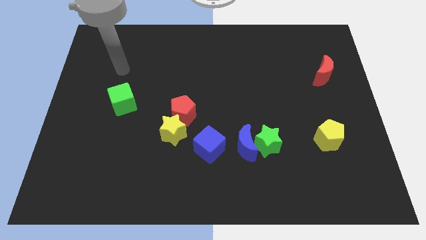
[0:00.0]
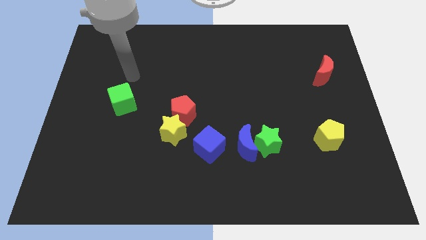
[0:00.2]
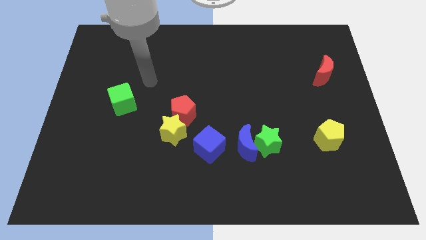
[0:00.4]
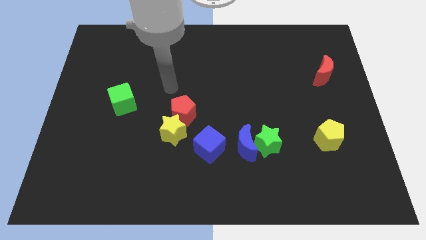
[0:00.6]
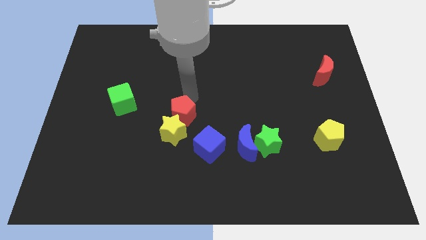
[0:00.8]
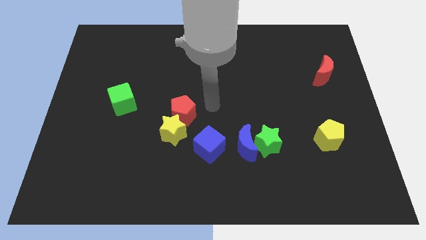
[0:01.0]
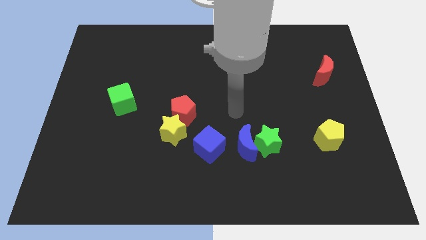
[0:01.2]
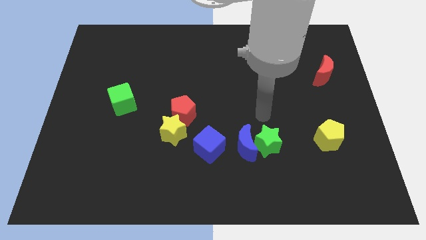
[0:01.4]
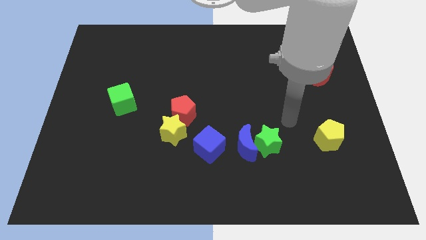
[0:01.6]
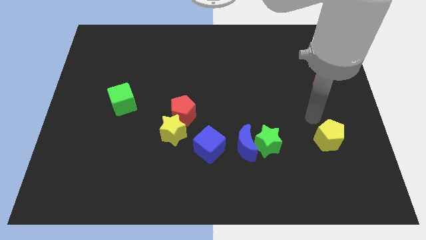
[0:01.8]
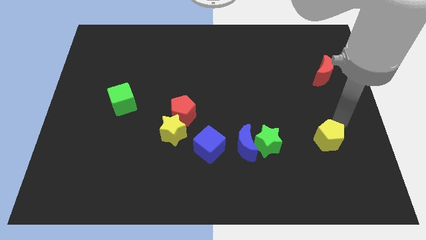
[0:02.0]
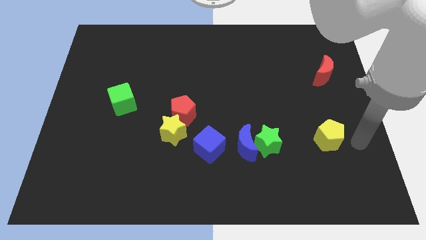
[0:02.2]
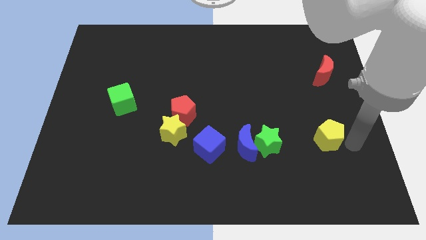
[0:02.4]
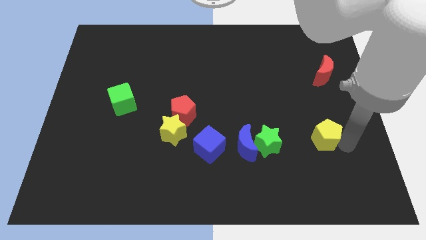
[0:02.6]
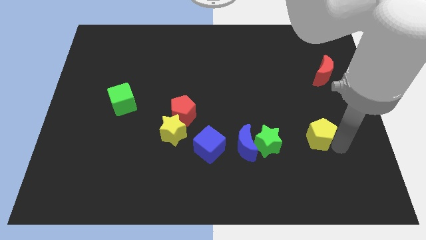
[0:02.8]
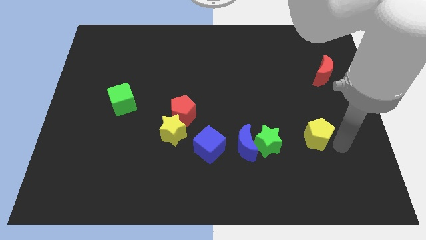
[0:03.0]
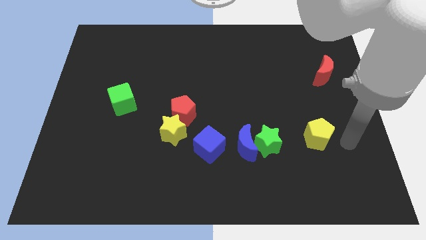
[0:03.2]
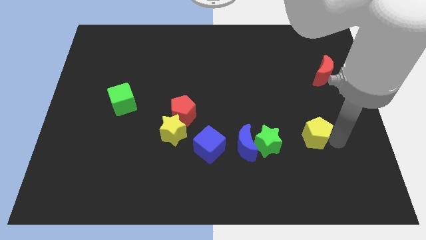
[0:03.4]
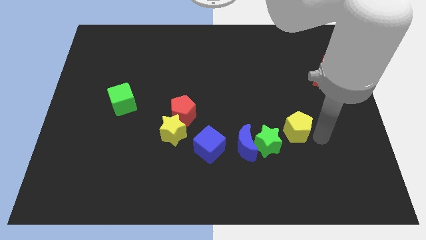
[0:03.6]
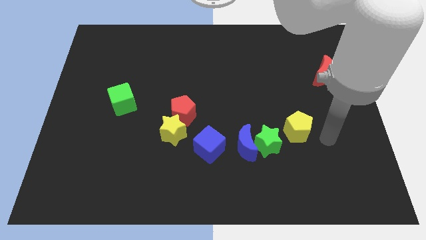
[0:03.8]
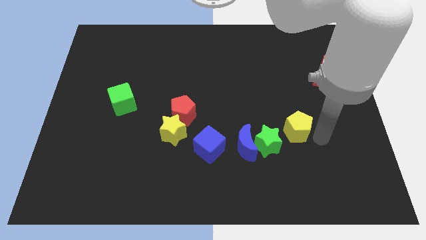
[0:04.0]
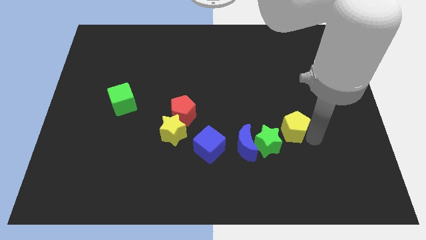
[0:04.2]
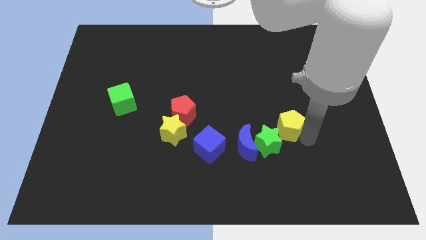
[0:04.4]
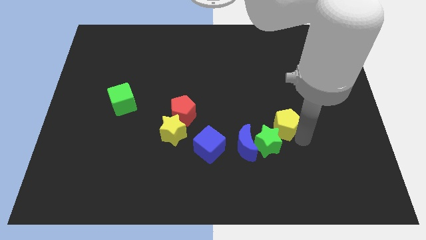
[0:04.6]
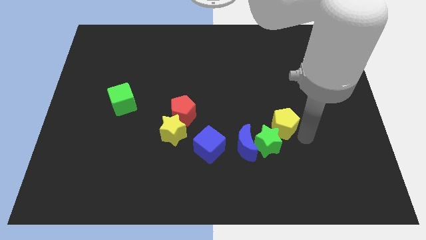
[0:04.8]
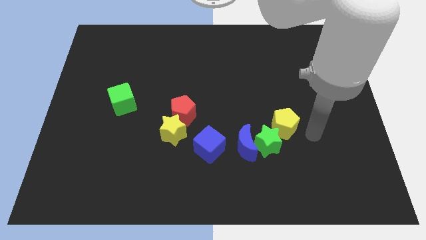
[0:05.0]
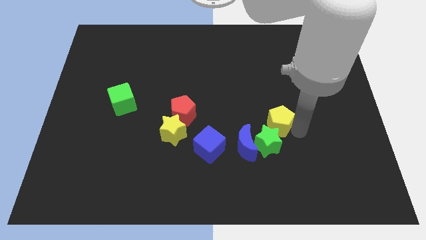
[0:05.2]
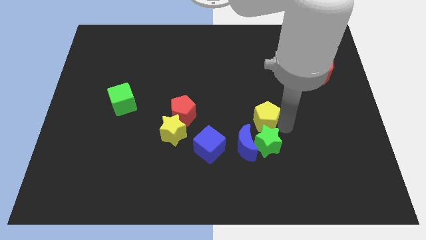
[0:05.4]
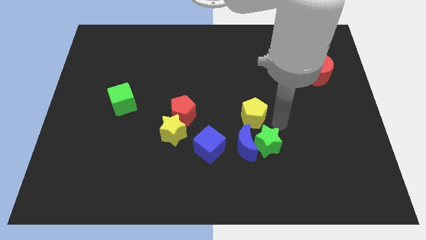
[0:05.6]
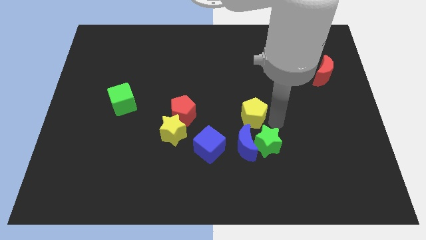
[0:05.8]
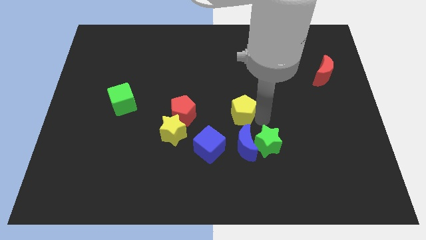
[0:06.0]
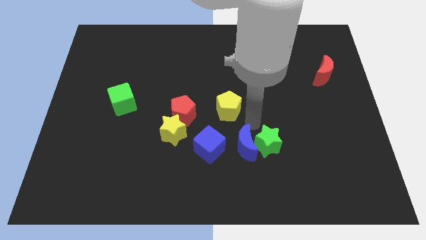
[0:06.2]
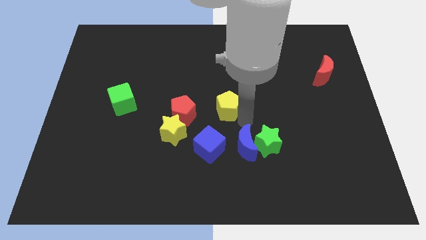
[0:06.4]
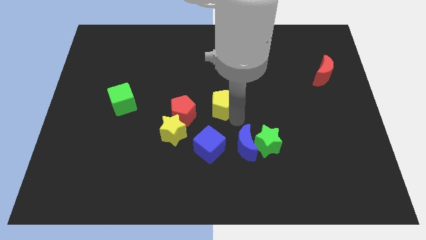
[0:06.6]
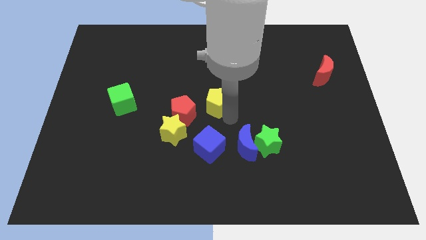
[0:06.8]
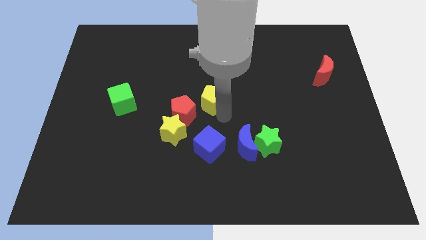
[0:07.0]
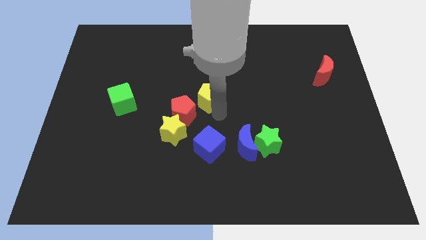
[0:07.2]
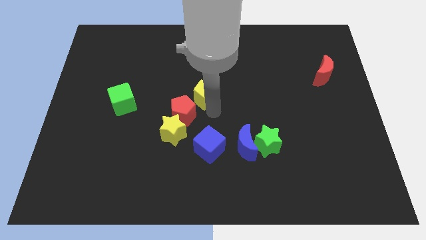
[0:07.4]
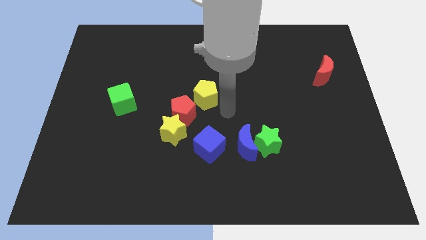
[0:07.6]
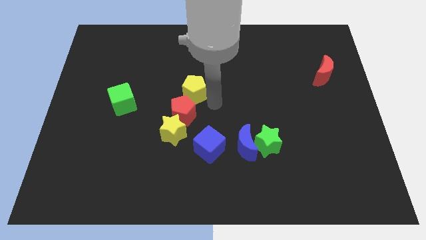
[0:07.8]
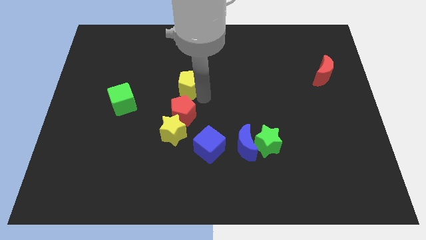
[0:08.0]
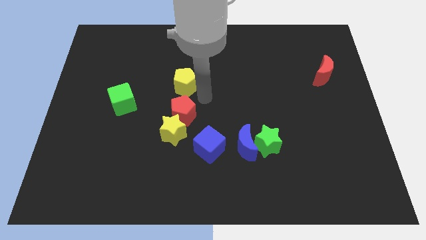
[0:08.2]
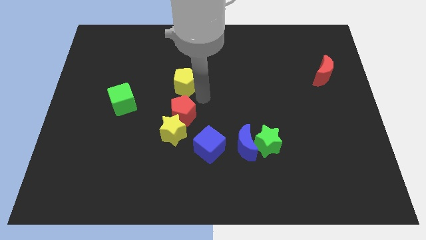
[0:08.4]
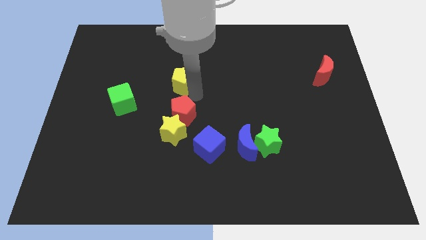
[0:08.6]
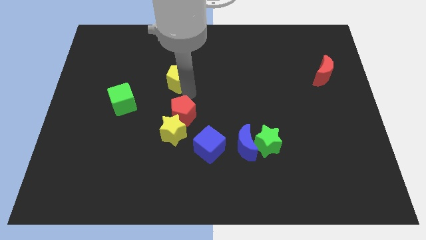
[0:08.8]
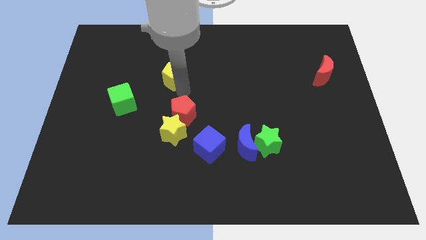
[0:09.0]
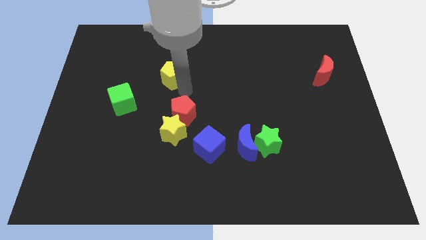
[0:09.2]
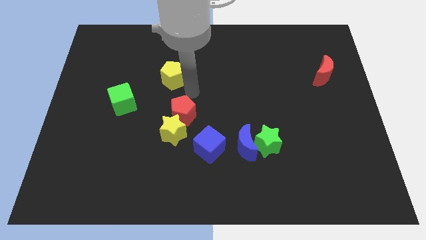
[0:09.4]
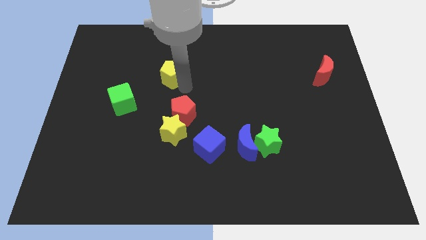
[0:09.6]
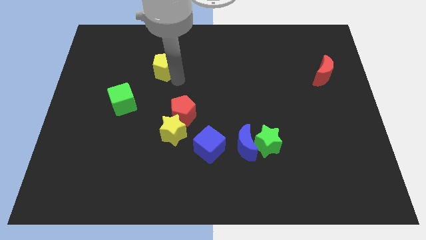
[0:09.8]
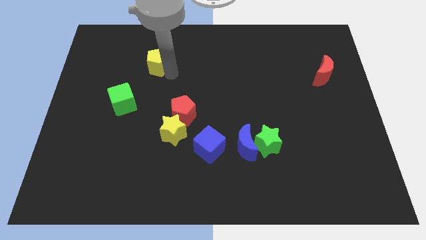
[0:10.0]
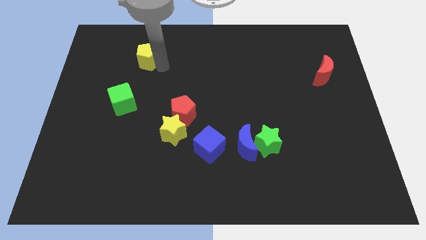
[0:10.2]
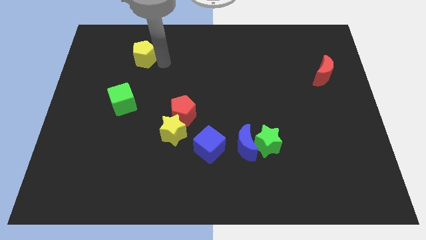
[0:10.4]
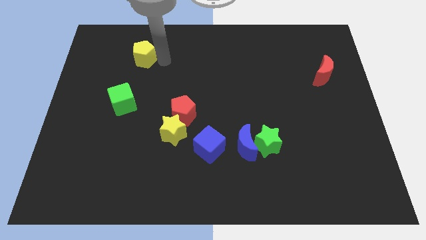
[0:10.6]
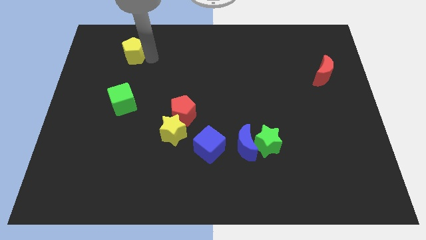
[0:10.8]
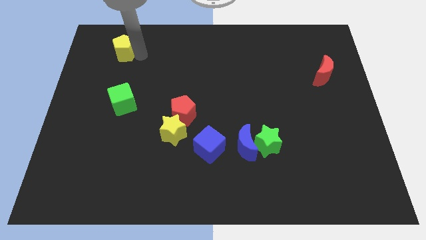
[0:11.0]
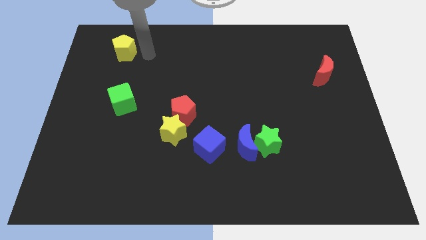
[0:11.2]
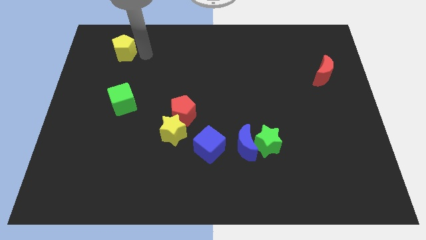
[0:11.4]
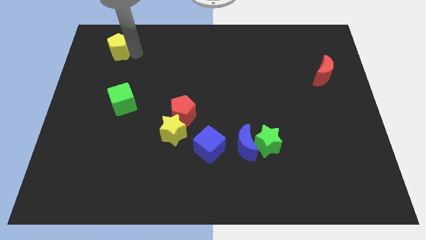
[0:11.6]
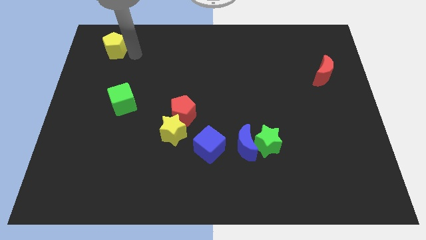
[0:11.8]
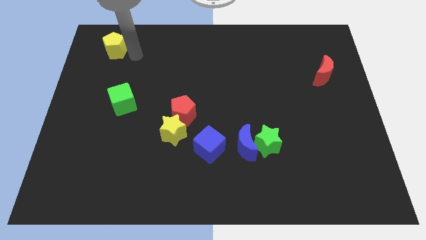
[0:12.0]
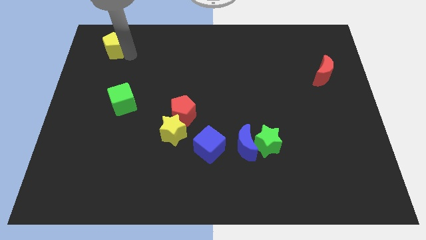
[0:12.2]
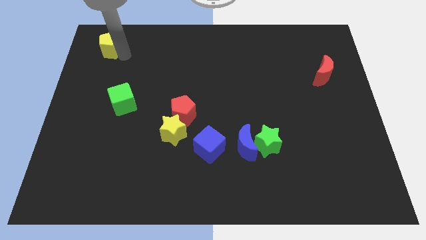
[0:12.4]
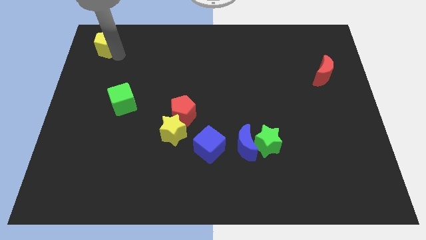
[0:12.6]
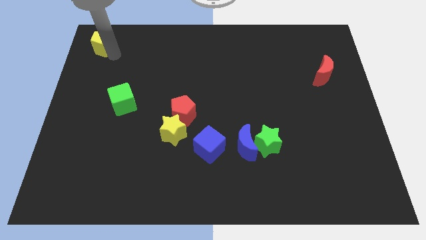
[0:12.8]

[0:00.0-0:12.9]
slide the yellow pentagon to the top left of the board

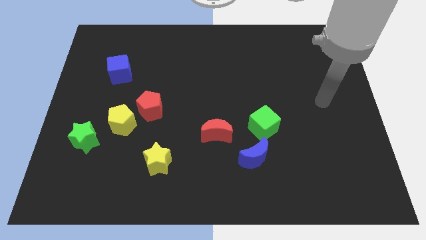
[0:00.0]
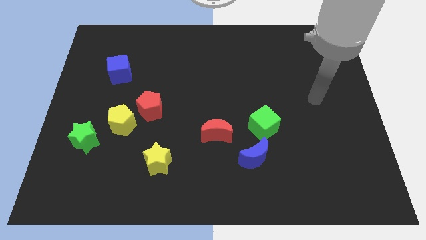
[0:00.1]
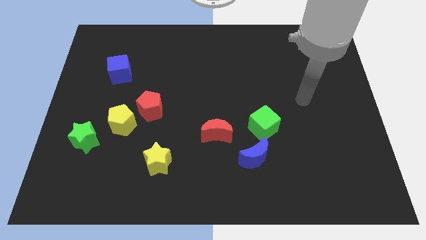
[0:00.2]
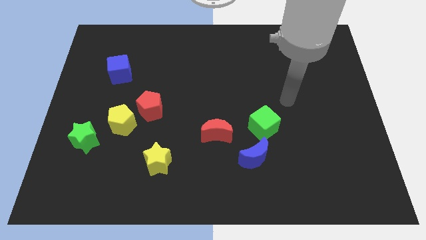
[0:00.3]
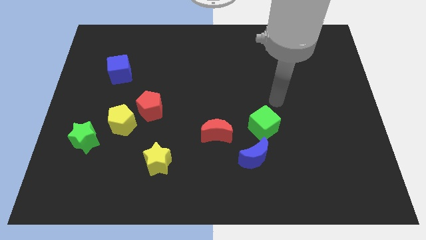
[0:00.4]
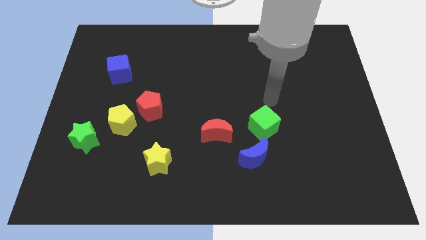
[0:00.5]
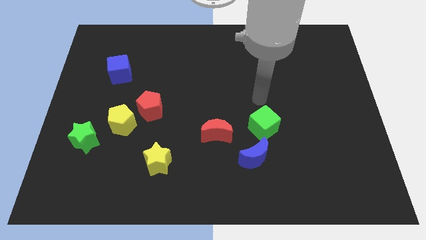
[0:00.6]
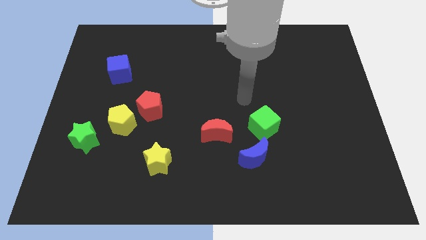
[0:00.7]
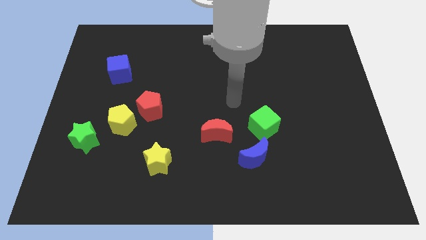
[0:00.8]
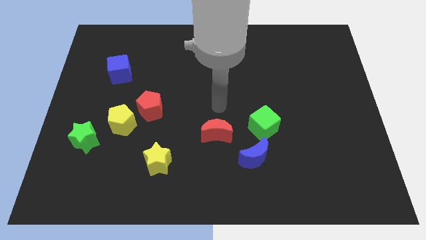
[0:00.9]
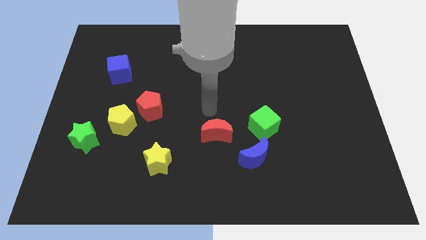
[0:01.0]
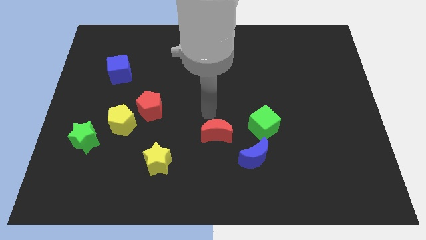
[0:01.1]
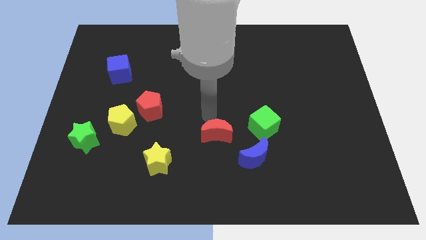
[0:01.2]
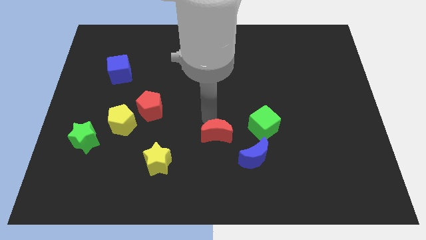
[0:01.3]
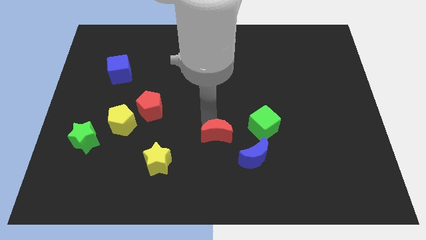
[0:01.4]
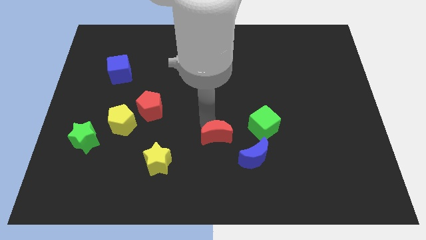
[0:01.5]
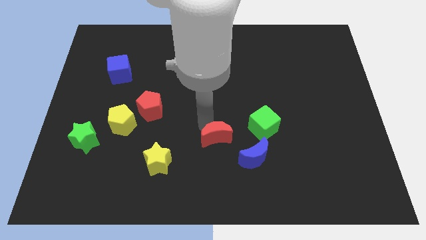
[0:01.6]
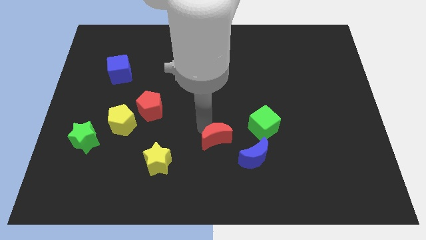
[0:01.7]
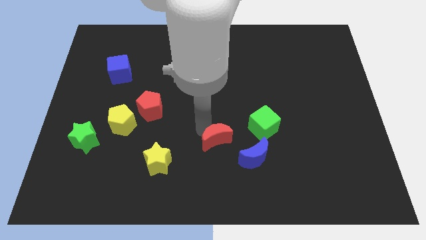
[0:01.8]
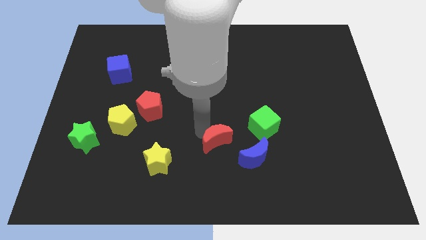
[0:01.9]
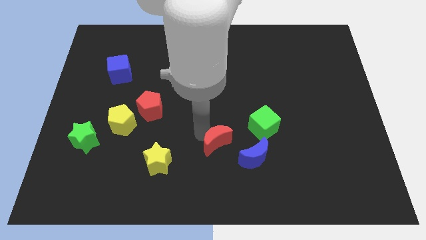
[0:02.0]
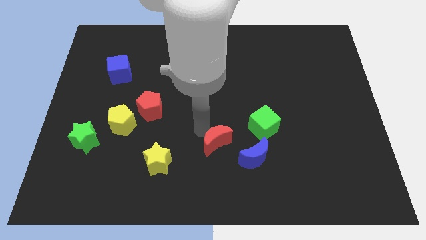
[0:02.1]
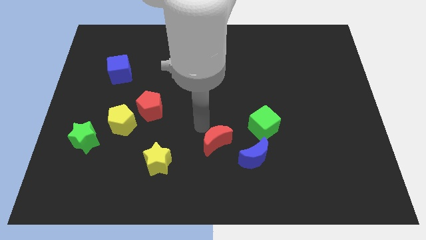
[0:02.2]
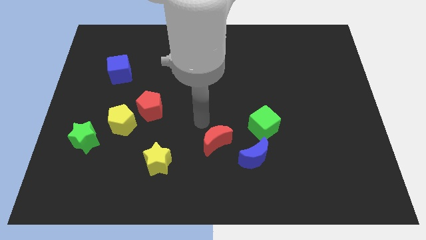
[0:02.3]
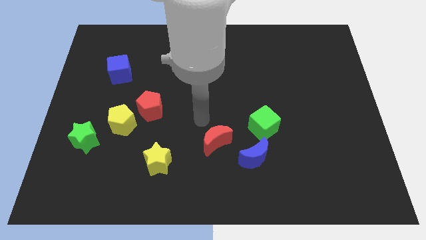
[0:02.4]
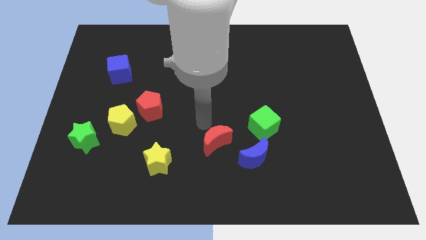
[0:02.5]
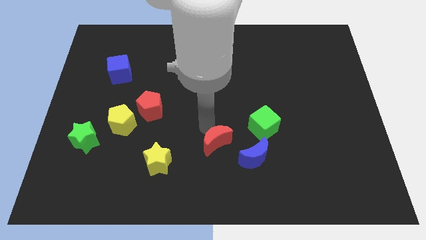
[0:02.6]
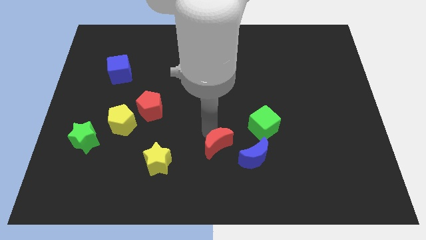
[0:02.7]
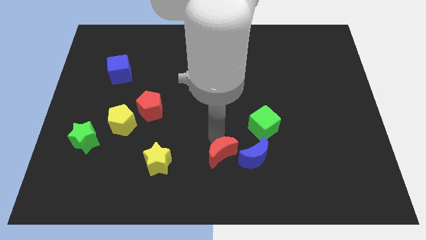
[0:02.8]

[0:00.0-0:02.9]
put the red moon to the bottom
